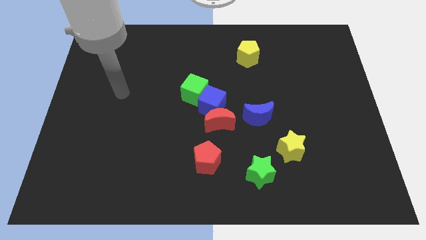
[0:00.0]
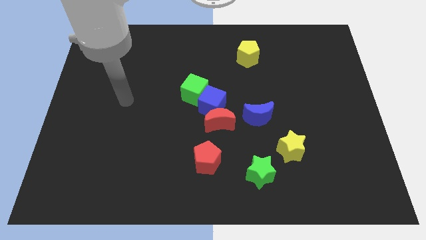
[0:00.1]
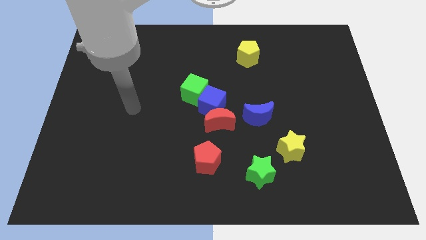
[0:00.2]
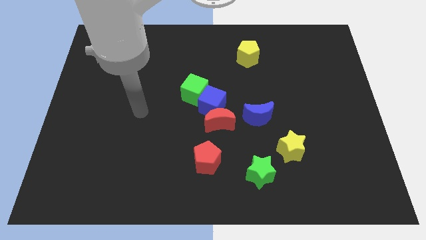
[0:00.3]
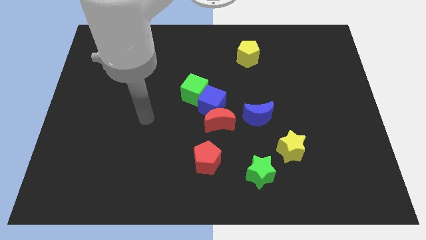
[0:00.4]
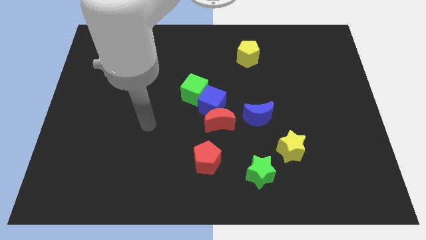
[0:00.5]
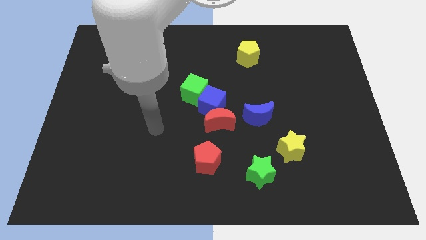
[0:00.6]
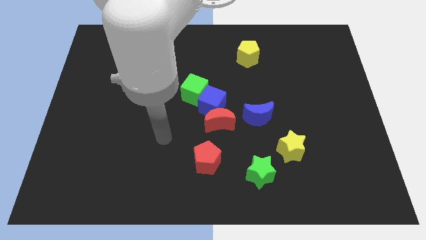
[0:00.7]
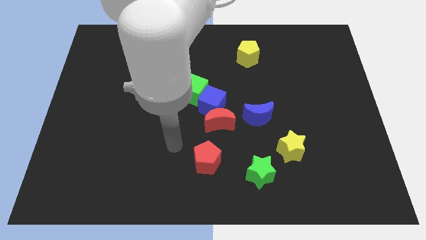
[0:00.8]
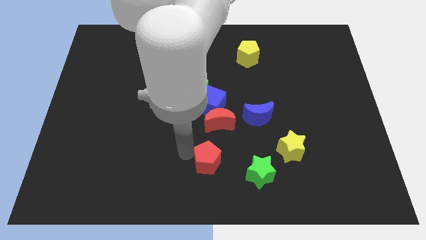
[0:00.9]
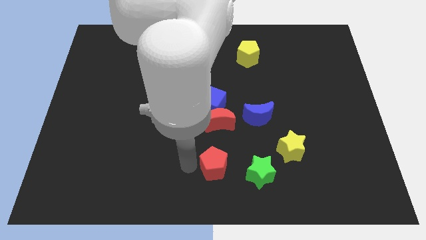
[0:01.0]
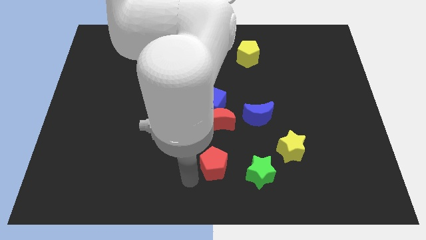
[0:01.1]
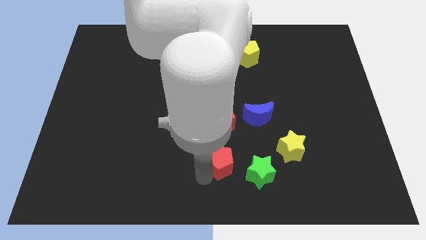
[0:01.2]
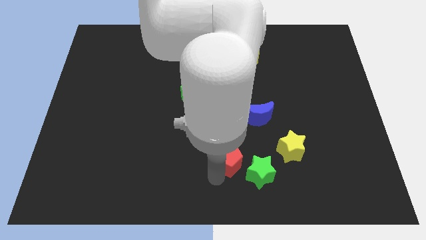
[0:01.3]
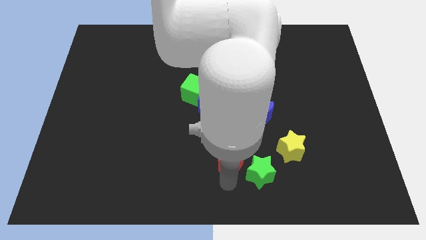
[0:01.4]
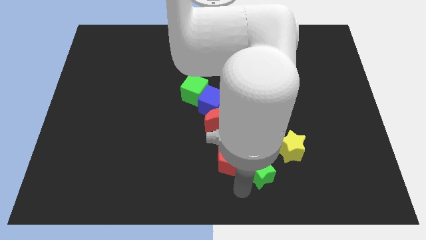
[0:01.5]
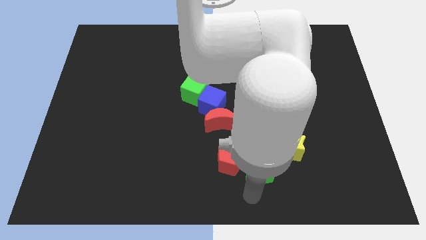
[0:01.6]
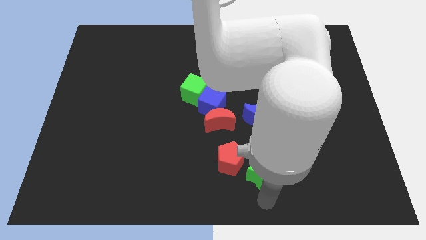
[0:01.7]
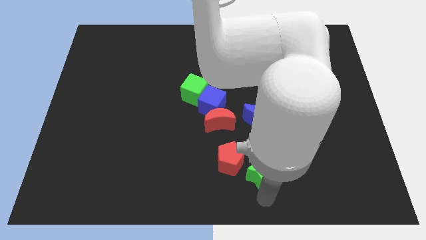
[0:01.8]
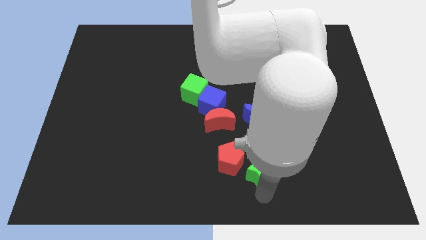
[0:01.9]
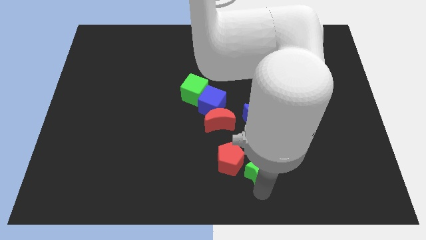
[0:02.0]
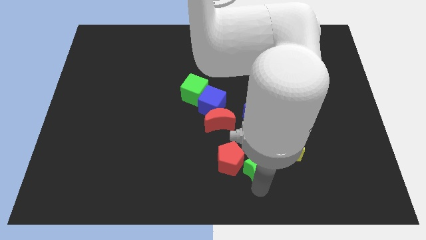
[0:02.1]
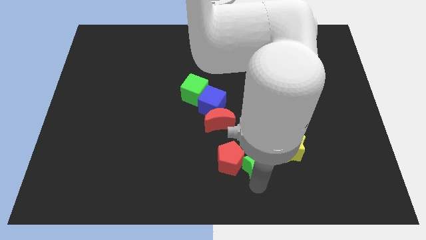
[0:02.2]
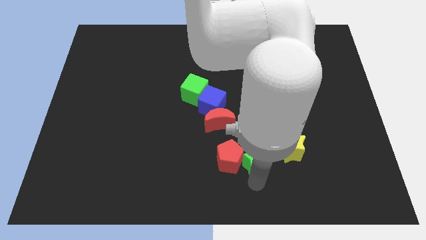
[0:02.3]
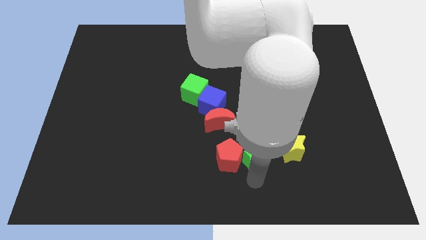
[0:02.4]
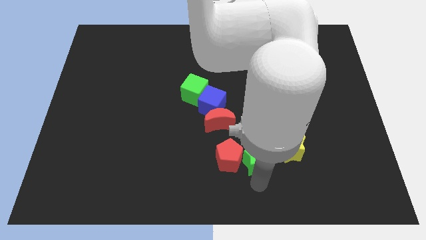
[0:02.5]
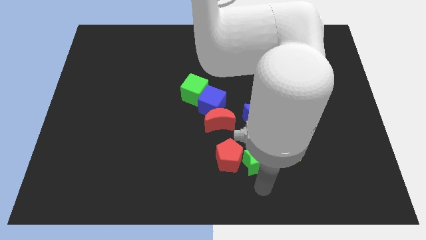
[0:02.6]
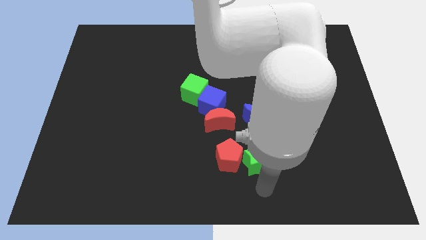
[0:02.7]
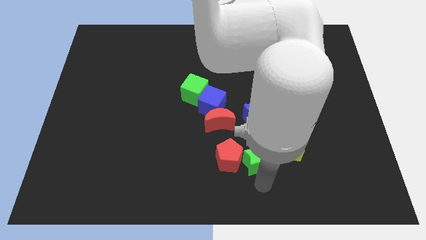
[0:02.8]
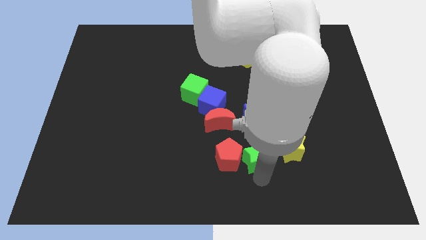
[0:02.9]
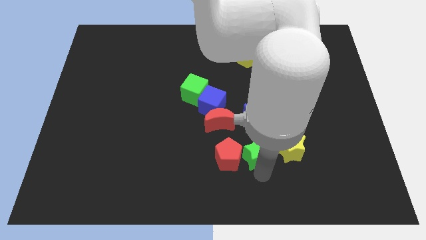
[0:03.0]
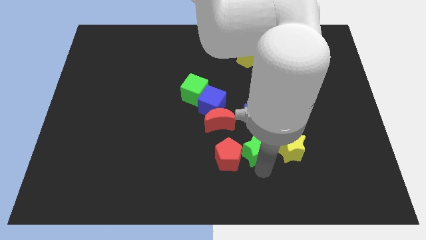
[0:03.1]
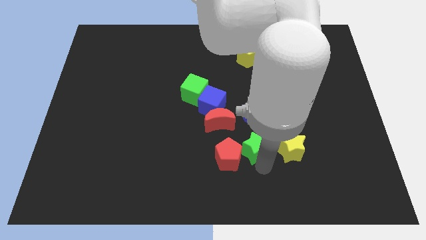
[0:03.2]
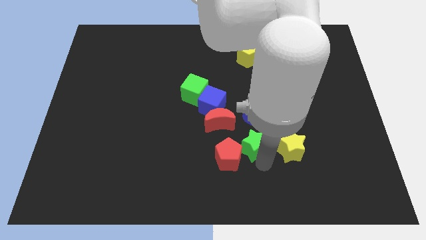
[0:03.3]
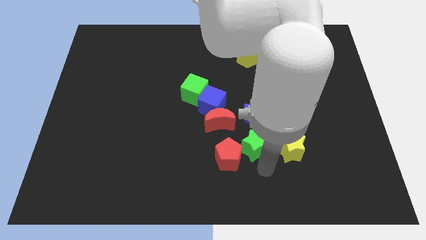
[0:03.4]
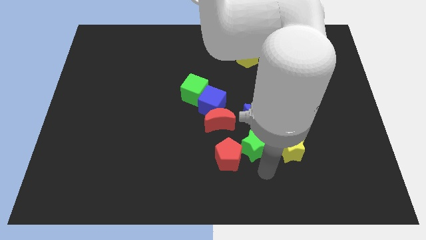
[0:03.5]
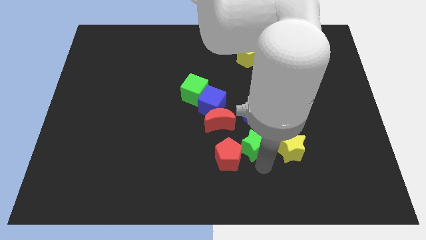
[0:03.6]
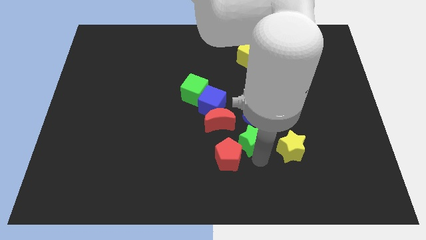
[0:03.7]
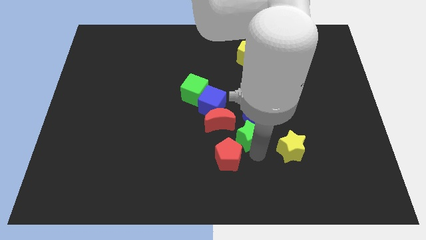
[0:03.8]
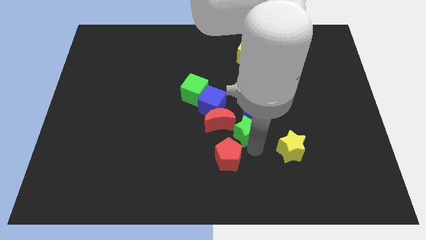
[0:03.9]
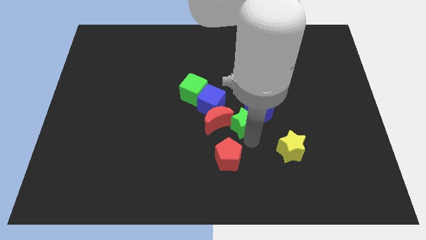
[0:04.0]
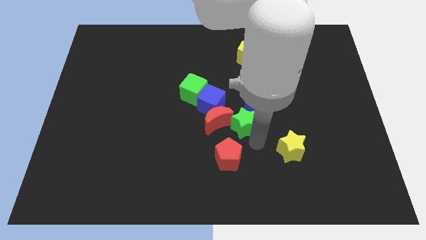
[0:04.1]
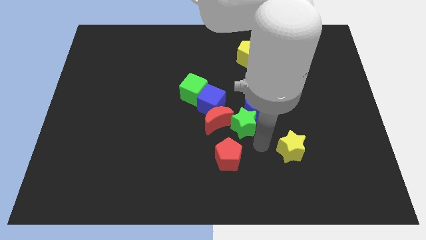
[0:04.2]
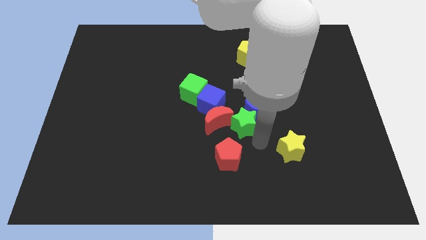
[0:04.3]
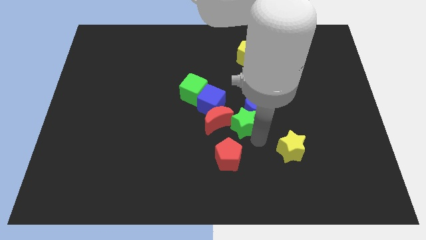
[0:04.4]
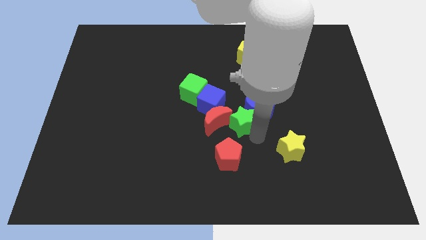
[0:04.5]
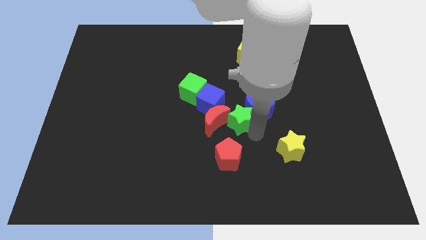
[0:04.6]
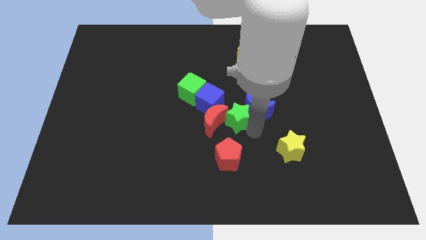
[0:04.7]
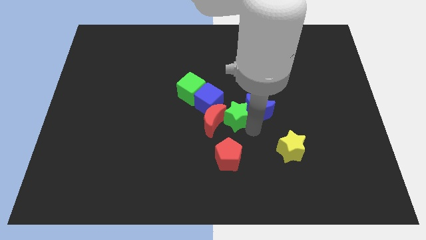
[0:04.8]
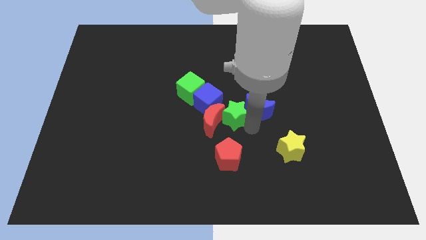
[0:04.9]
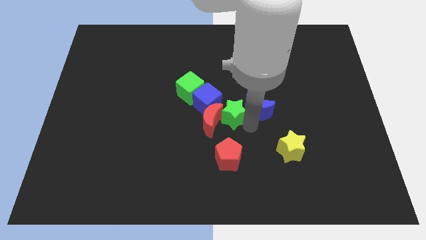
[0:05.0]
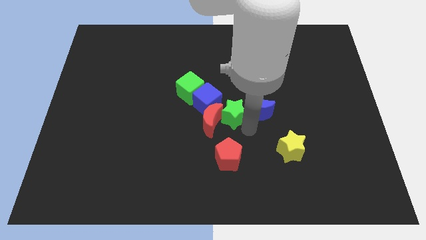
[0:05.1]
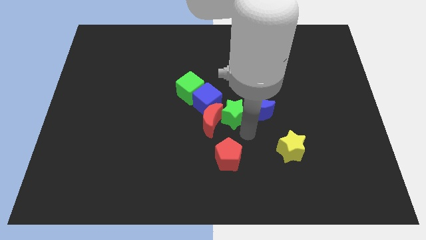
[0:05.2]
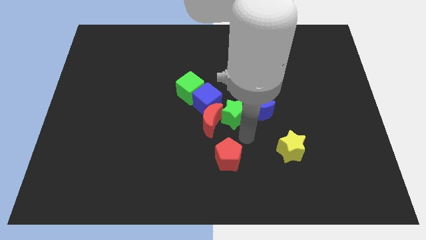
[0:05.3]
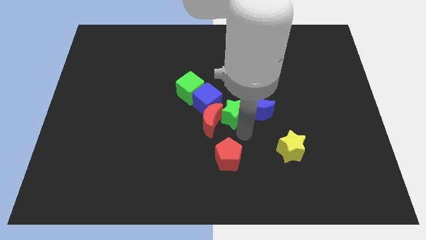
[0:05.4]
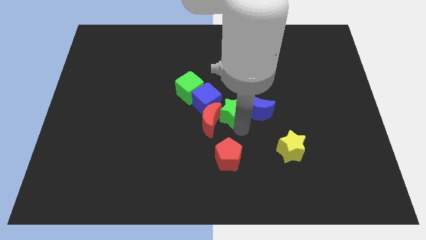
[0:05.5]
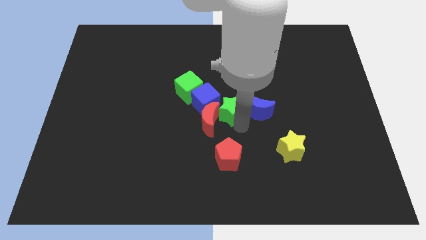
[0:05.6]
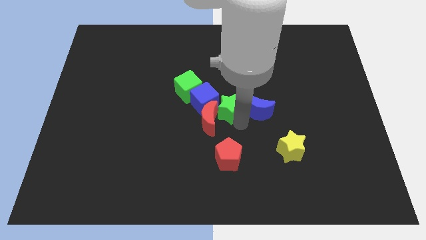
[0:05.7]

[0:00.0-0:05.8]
slide the green star close to the blue cube

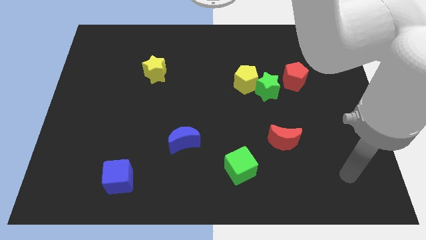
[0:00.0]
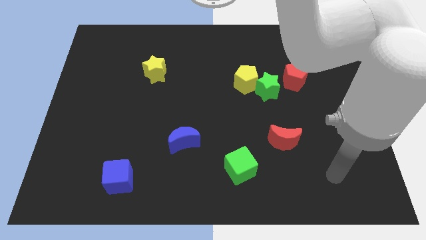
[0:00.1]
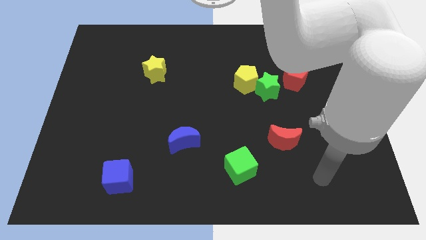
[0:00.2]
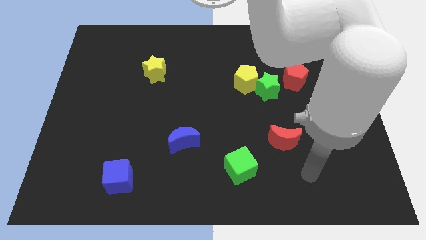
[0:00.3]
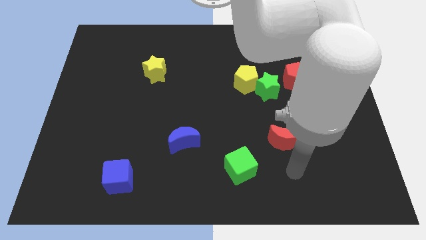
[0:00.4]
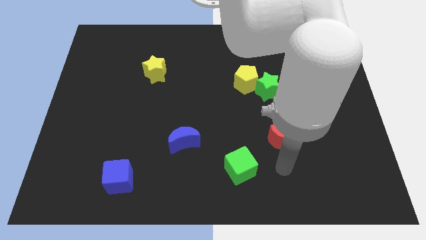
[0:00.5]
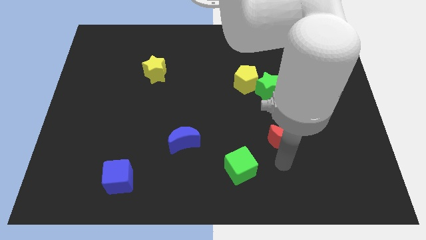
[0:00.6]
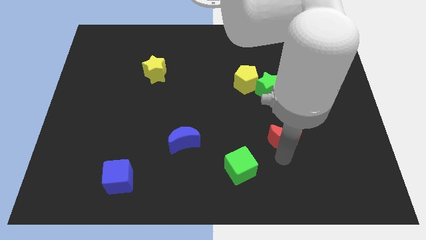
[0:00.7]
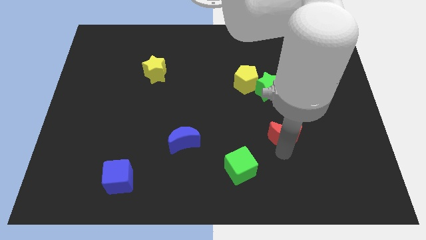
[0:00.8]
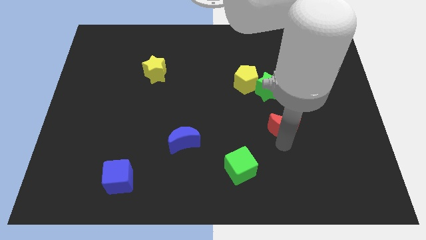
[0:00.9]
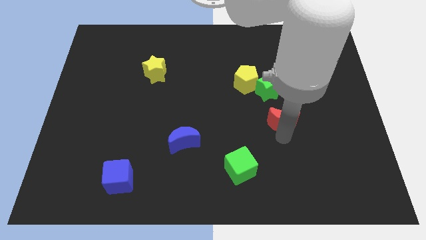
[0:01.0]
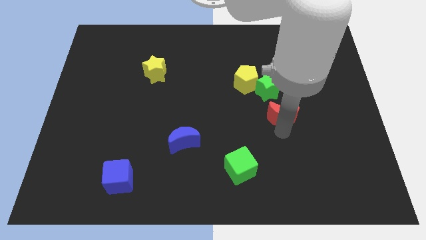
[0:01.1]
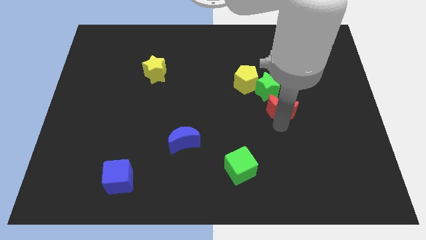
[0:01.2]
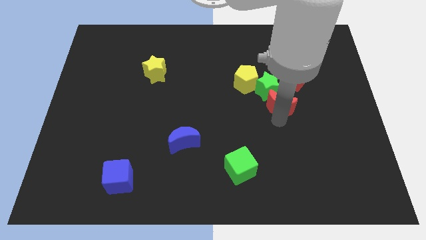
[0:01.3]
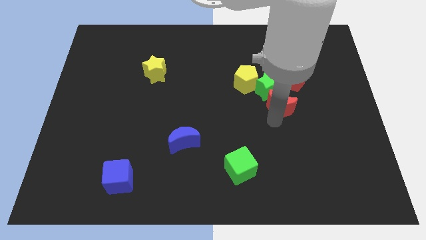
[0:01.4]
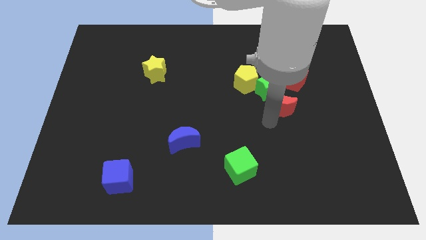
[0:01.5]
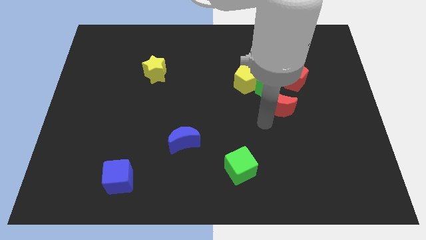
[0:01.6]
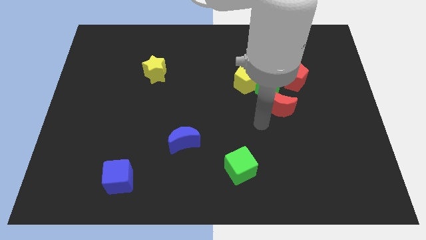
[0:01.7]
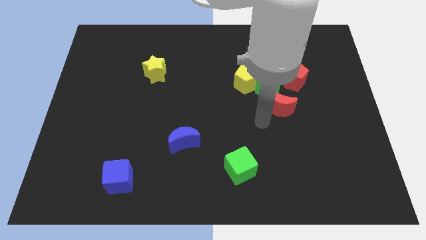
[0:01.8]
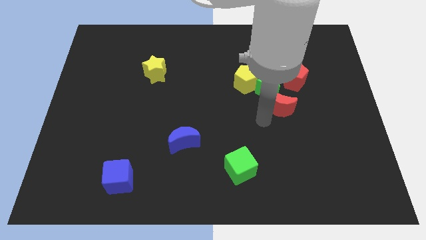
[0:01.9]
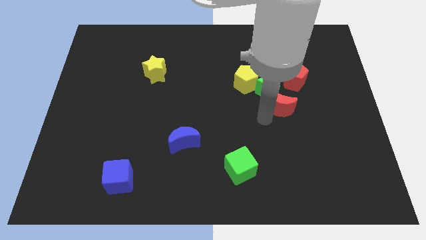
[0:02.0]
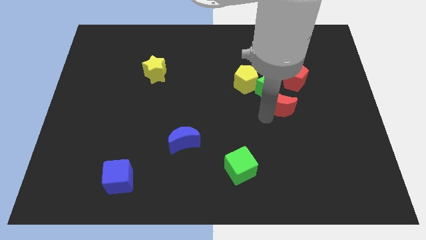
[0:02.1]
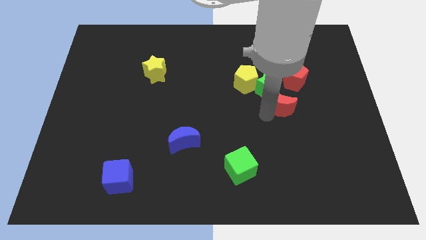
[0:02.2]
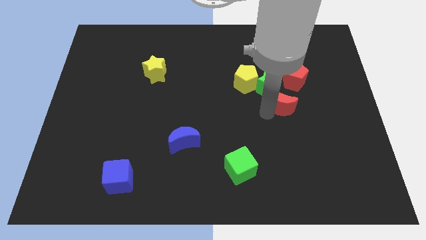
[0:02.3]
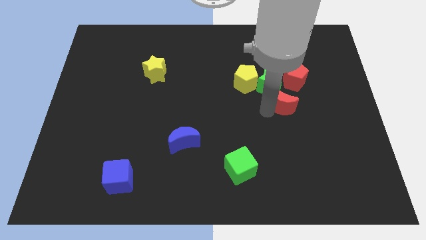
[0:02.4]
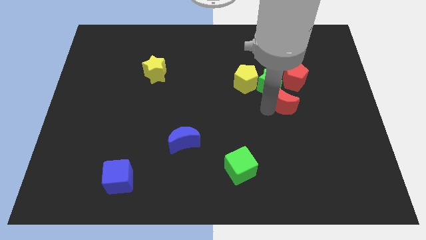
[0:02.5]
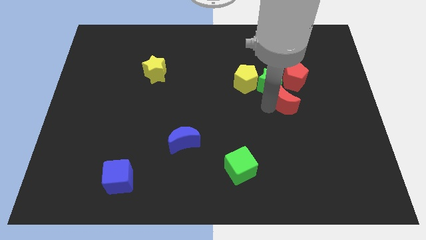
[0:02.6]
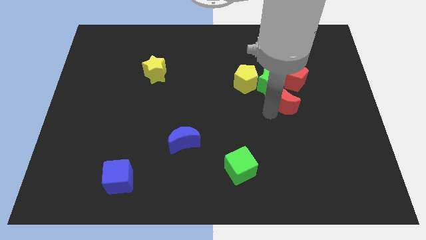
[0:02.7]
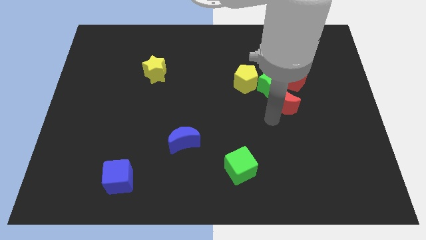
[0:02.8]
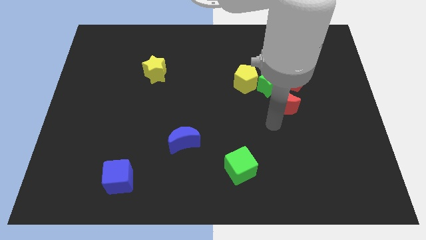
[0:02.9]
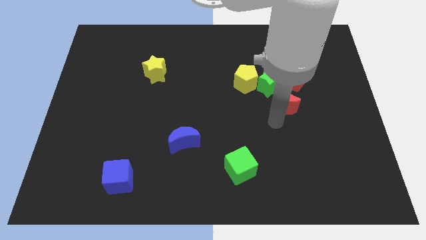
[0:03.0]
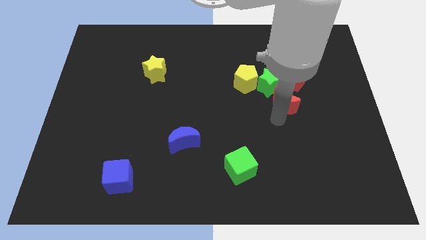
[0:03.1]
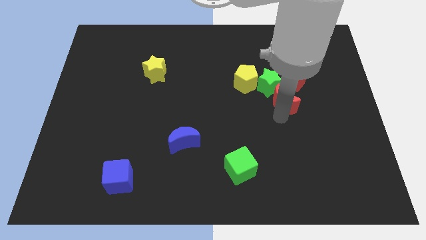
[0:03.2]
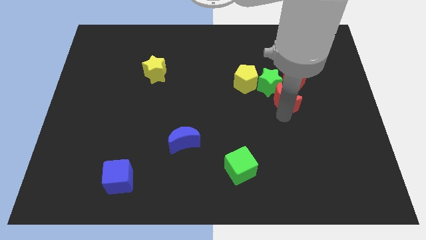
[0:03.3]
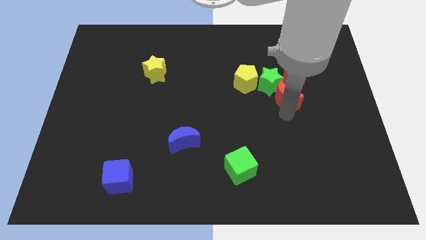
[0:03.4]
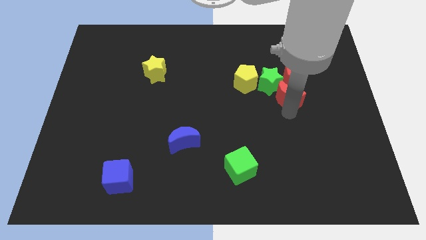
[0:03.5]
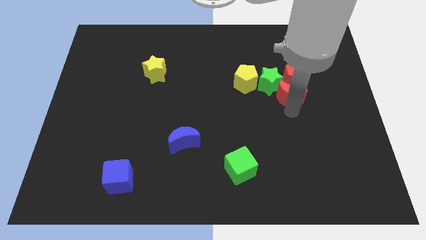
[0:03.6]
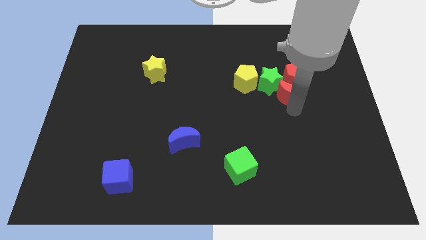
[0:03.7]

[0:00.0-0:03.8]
move the red moon next to the red pentagon
